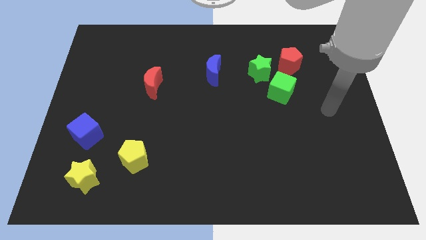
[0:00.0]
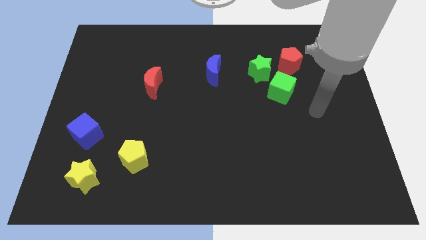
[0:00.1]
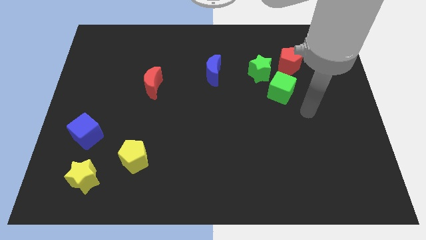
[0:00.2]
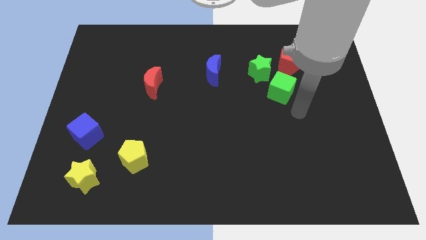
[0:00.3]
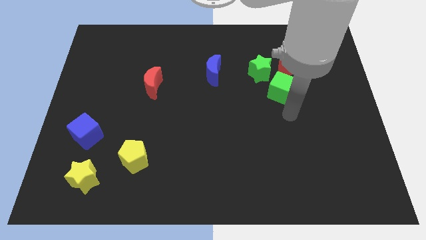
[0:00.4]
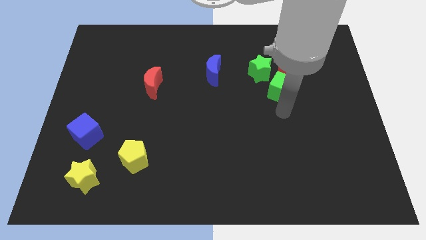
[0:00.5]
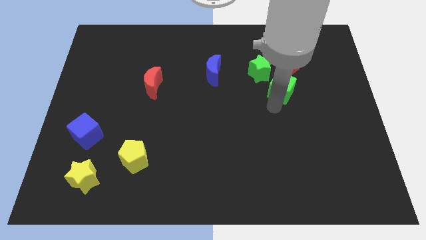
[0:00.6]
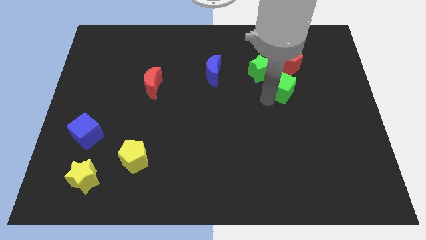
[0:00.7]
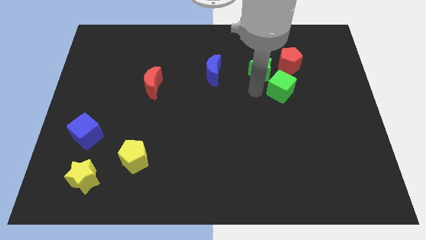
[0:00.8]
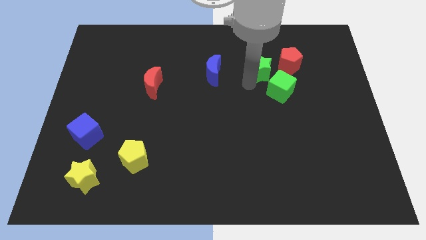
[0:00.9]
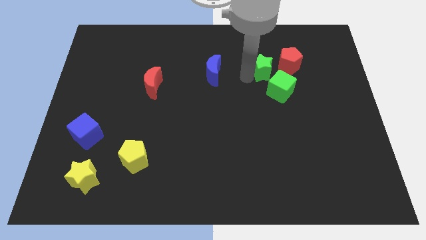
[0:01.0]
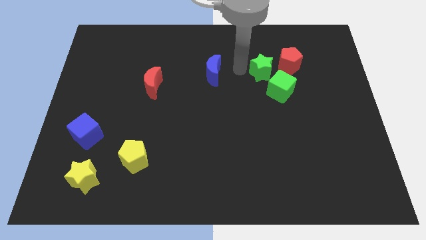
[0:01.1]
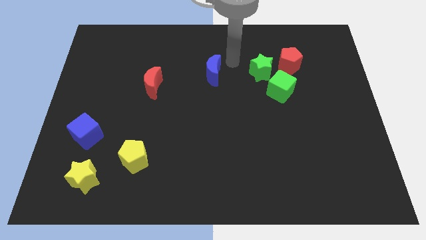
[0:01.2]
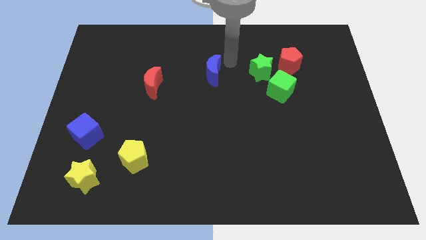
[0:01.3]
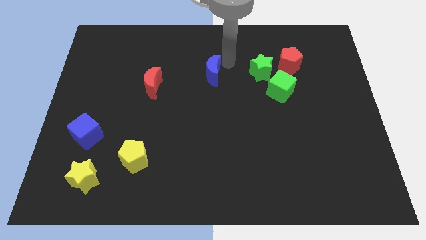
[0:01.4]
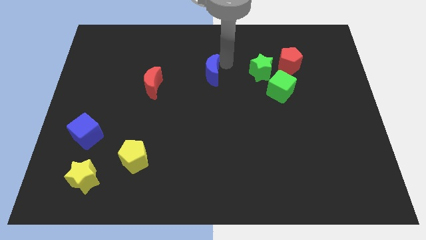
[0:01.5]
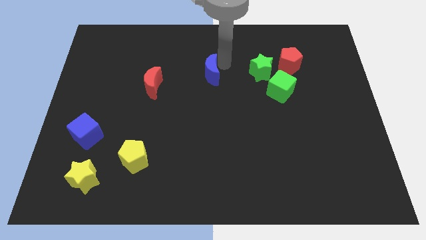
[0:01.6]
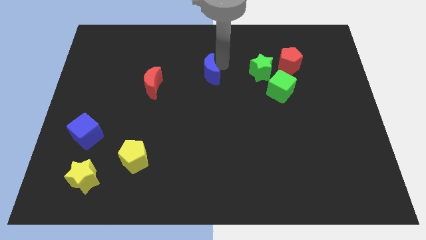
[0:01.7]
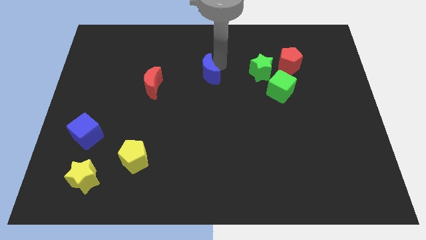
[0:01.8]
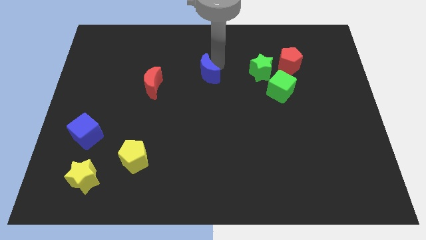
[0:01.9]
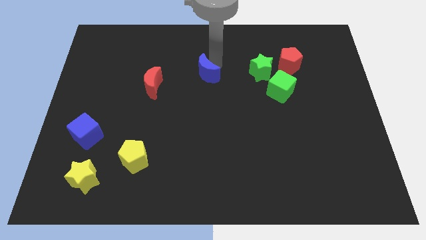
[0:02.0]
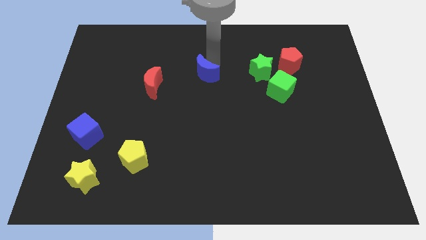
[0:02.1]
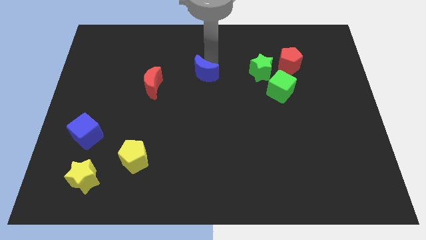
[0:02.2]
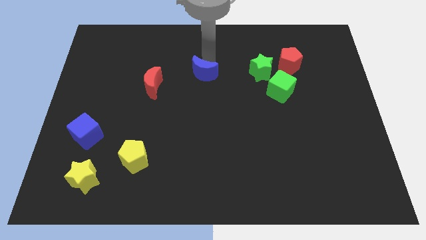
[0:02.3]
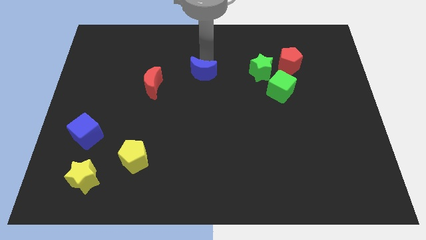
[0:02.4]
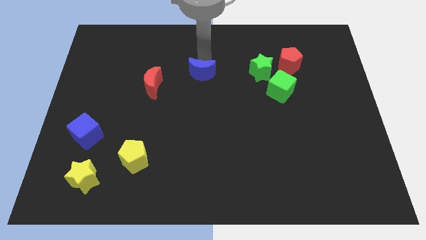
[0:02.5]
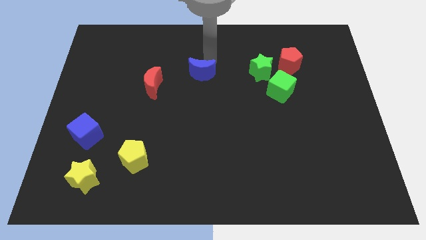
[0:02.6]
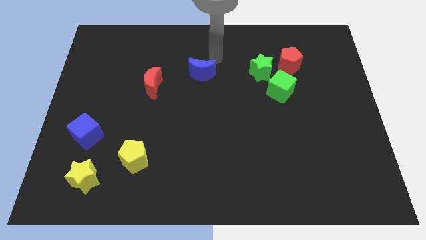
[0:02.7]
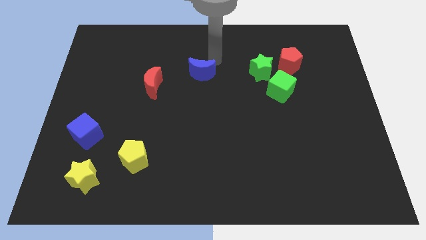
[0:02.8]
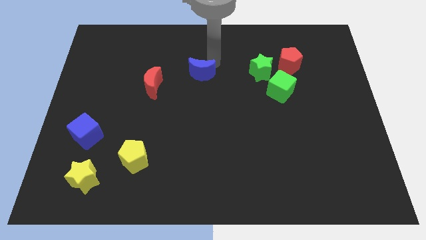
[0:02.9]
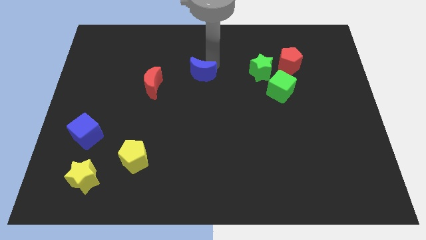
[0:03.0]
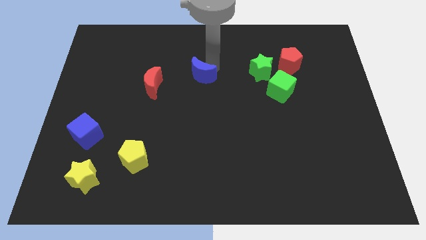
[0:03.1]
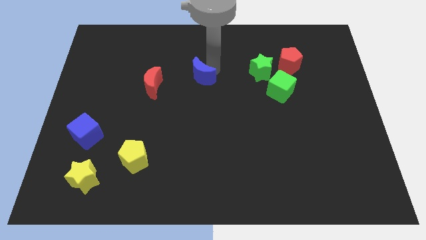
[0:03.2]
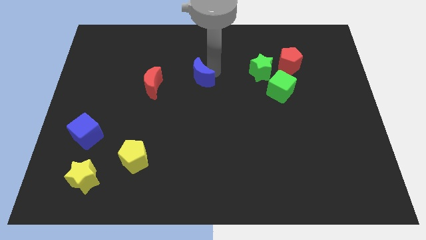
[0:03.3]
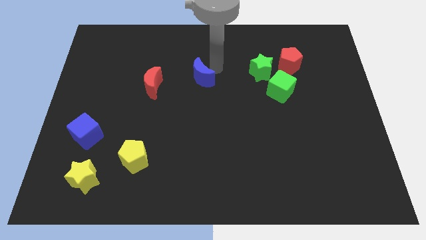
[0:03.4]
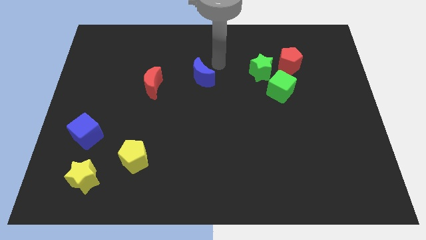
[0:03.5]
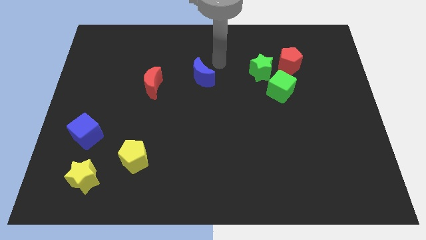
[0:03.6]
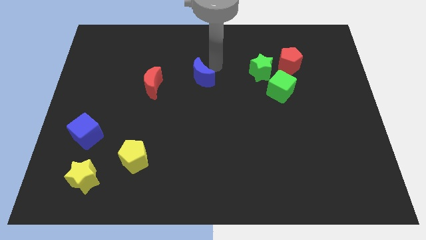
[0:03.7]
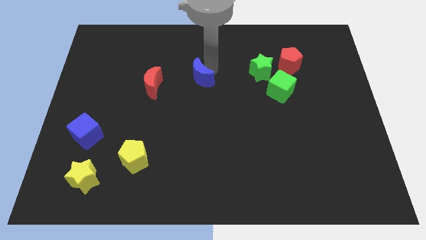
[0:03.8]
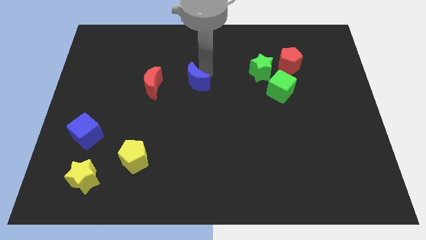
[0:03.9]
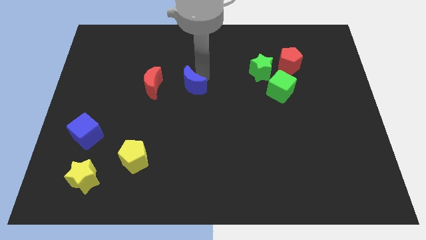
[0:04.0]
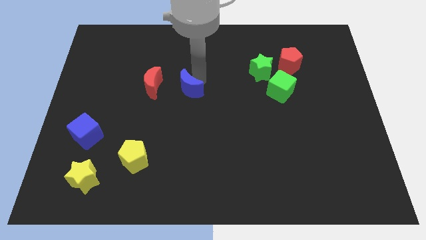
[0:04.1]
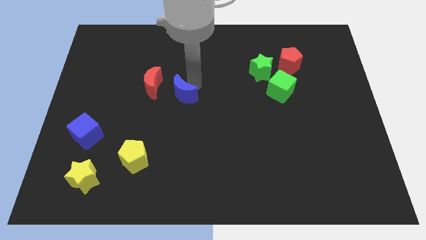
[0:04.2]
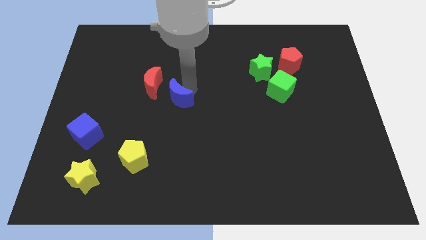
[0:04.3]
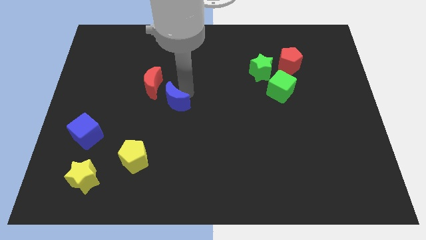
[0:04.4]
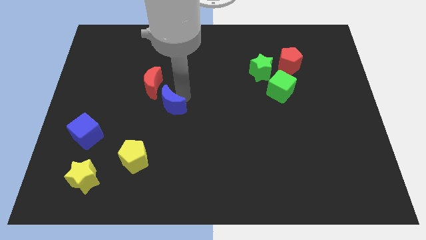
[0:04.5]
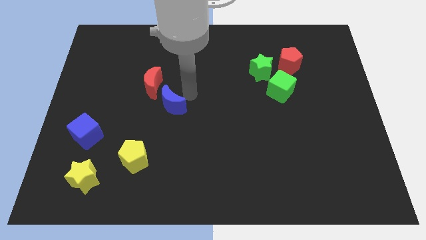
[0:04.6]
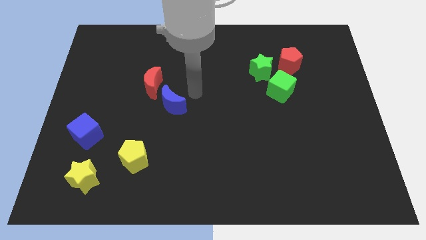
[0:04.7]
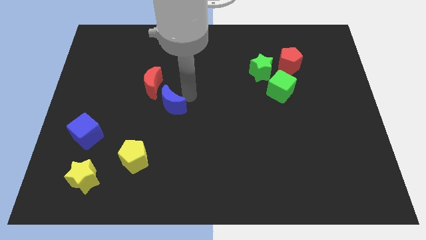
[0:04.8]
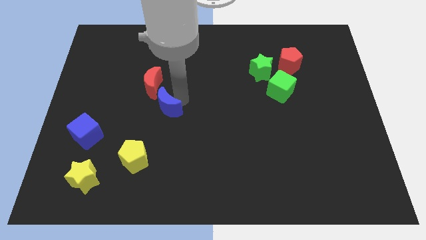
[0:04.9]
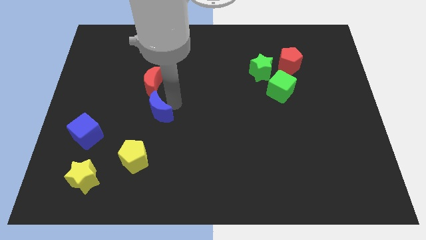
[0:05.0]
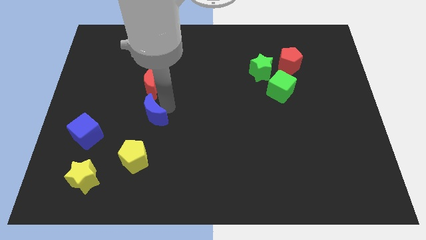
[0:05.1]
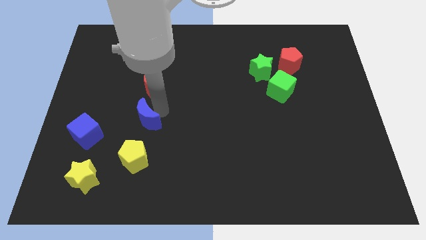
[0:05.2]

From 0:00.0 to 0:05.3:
move the blue moon down and to the left diagonally

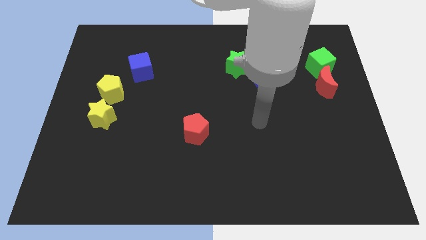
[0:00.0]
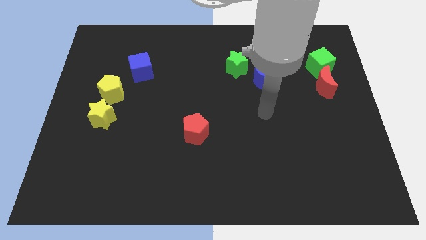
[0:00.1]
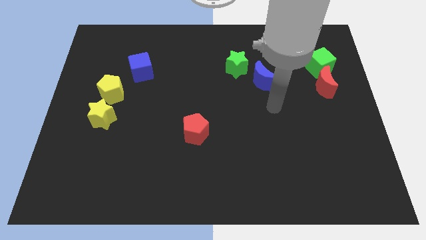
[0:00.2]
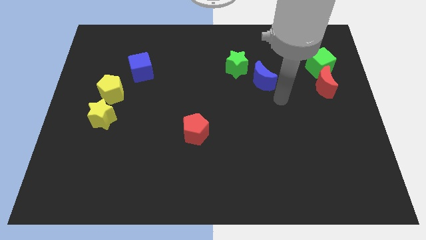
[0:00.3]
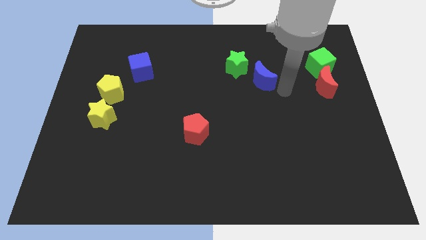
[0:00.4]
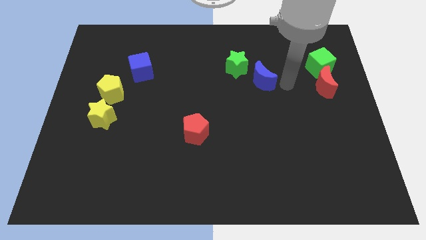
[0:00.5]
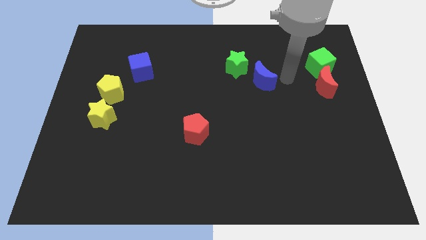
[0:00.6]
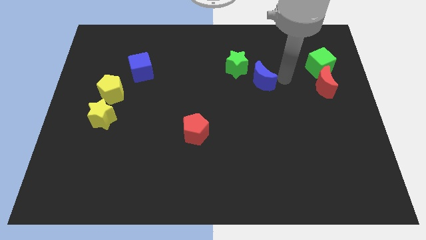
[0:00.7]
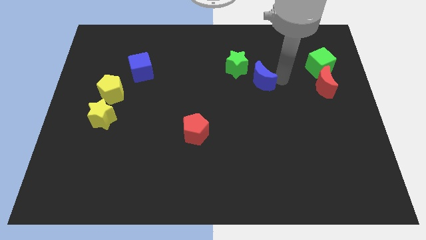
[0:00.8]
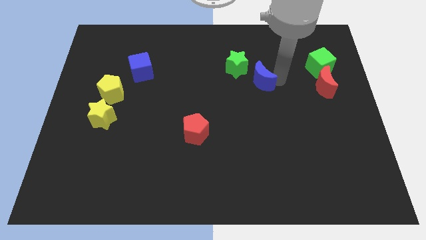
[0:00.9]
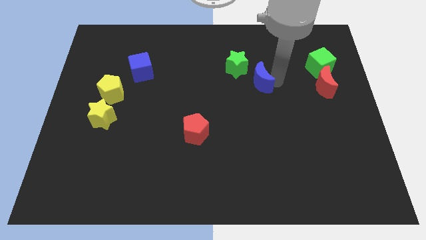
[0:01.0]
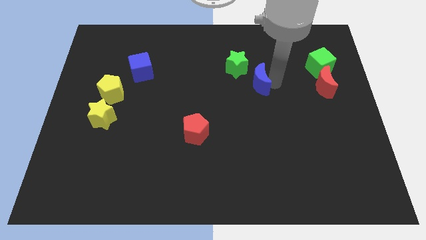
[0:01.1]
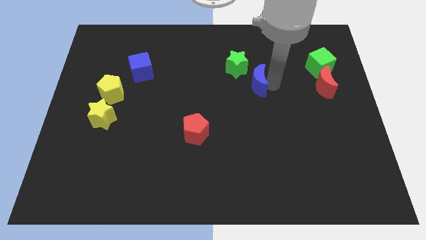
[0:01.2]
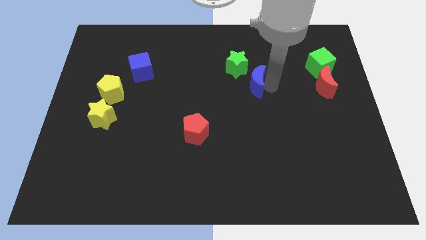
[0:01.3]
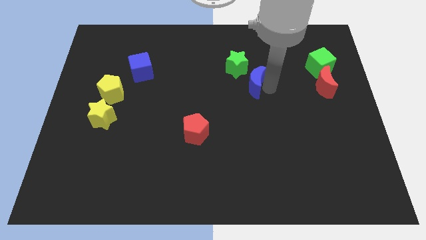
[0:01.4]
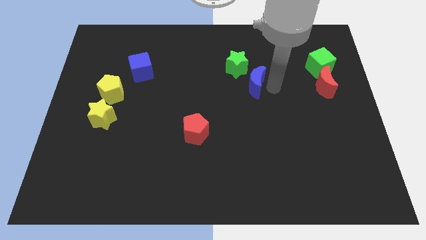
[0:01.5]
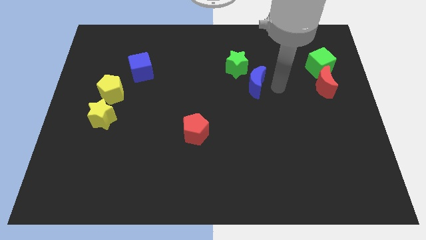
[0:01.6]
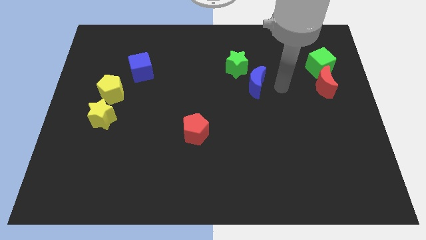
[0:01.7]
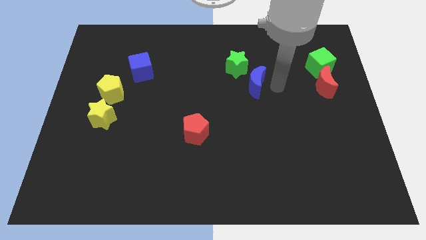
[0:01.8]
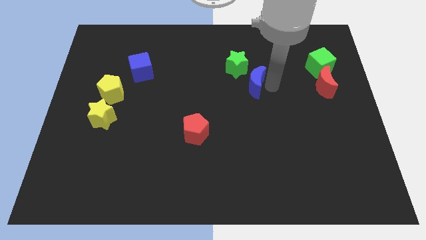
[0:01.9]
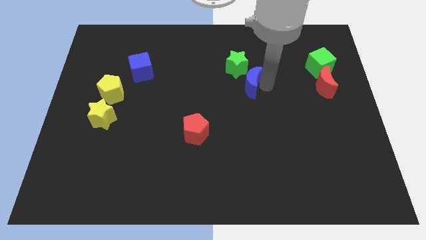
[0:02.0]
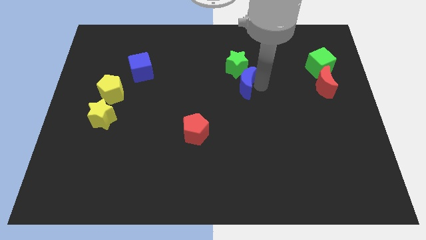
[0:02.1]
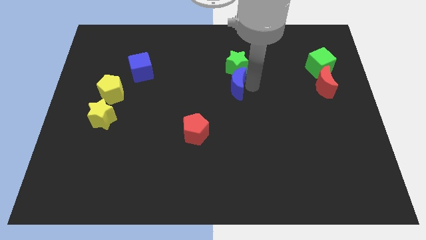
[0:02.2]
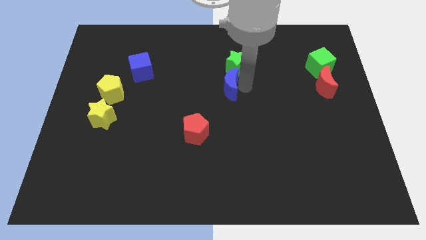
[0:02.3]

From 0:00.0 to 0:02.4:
slightly slide the blue moon left

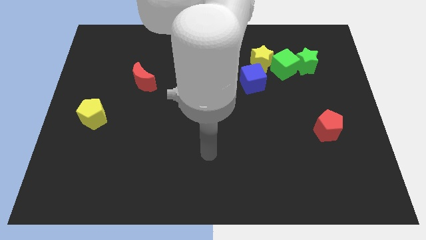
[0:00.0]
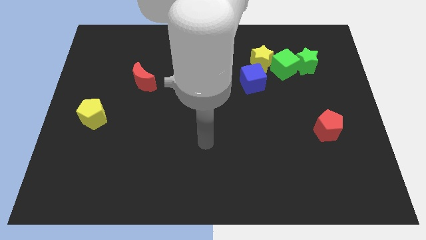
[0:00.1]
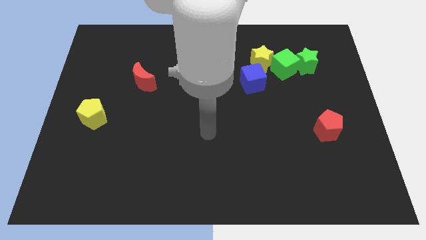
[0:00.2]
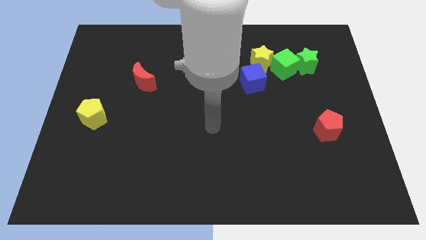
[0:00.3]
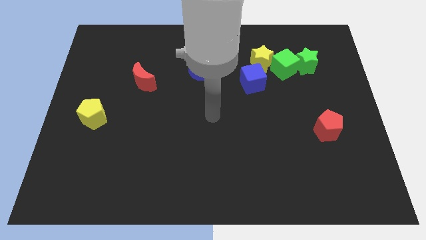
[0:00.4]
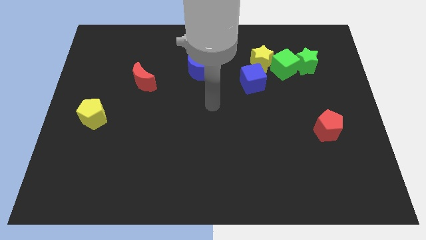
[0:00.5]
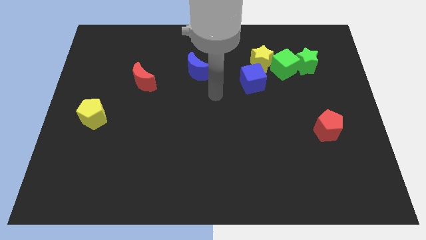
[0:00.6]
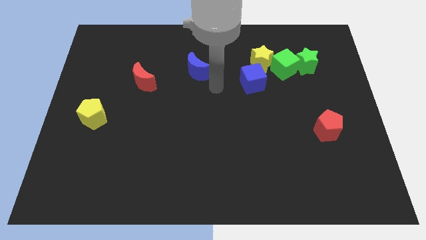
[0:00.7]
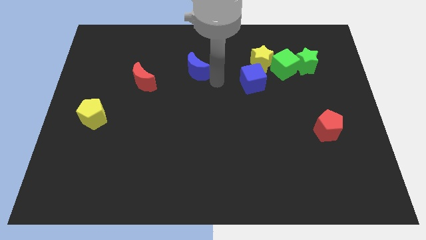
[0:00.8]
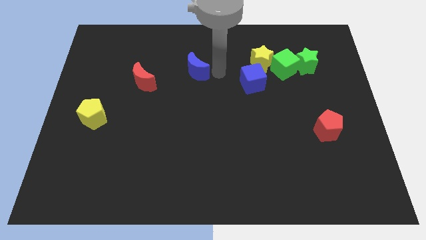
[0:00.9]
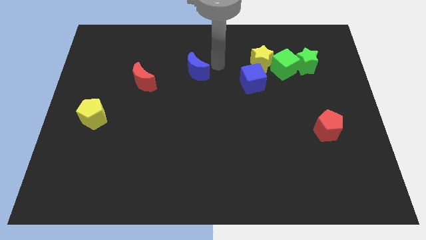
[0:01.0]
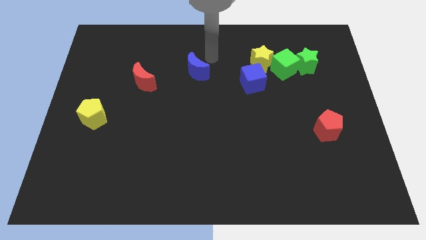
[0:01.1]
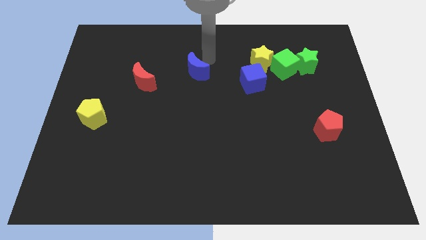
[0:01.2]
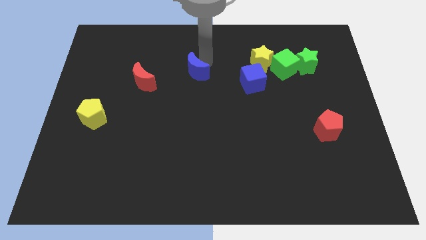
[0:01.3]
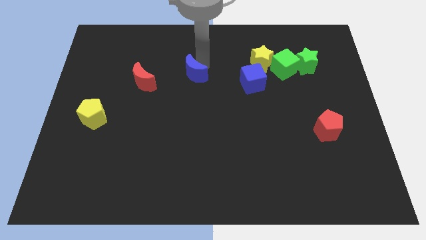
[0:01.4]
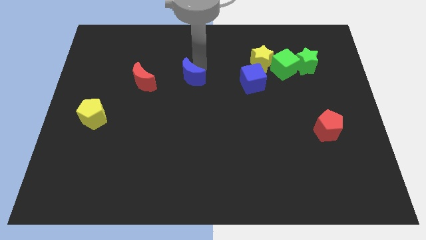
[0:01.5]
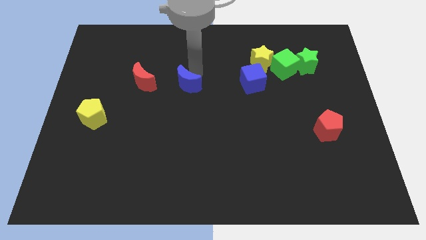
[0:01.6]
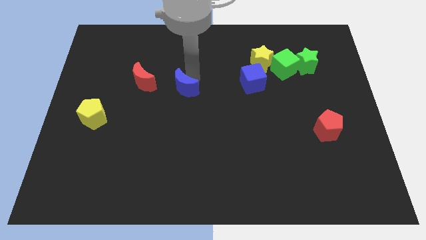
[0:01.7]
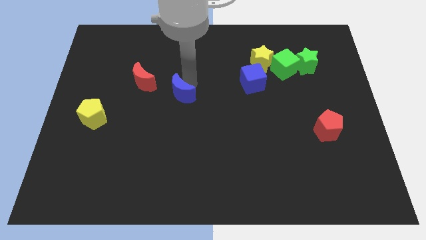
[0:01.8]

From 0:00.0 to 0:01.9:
slide the blue moon down and then left a little
